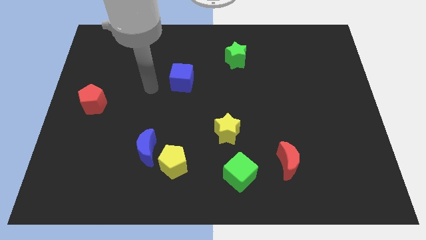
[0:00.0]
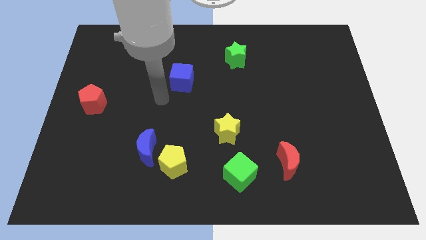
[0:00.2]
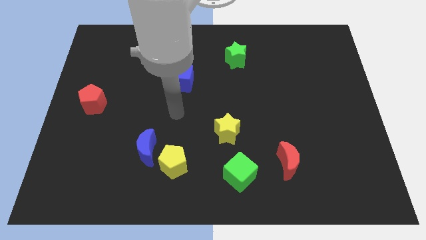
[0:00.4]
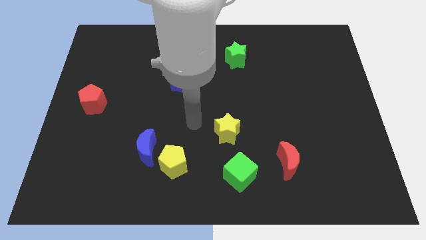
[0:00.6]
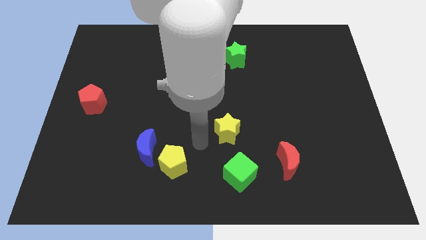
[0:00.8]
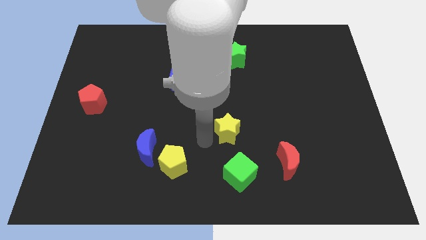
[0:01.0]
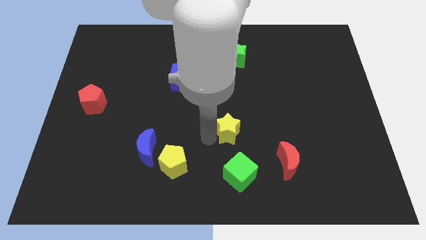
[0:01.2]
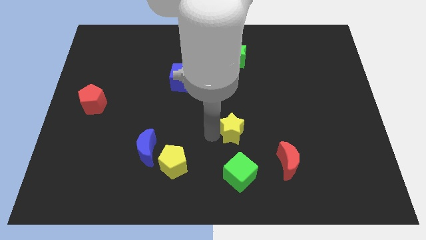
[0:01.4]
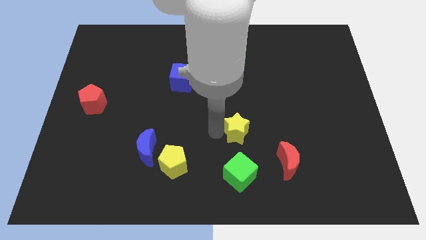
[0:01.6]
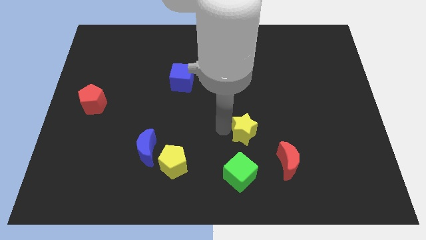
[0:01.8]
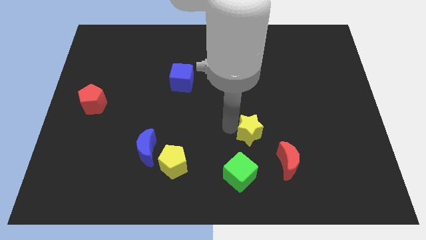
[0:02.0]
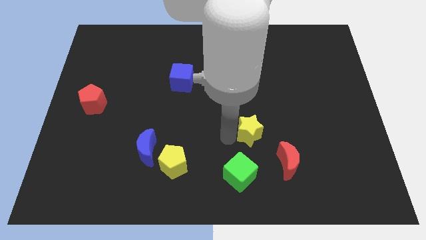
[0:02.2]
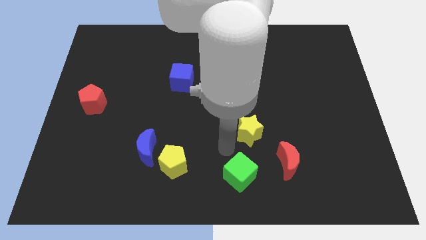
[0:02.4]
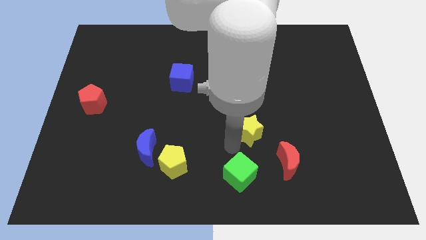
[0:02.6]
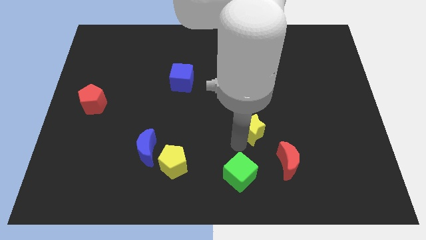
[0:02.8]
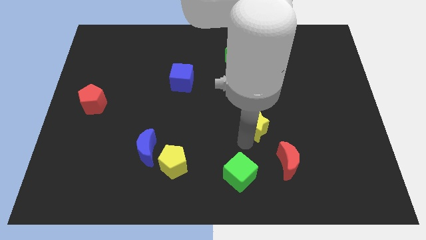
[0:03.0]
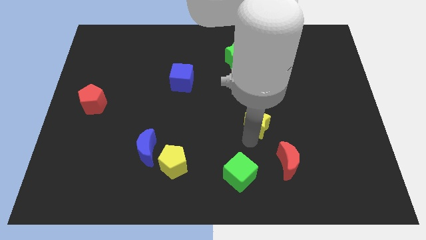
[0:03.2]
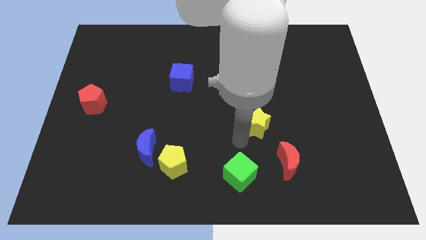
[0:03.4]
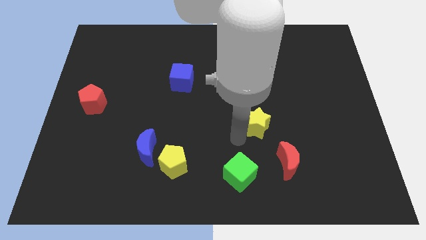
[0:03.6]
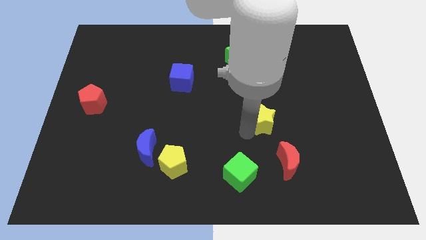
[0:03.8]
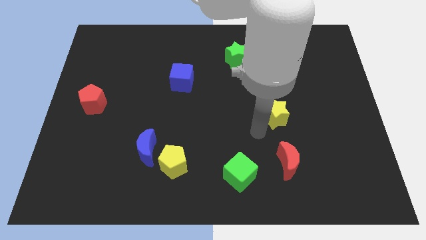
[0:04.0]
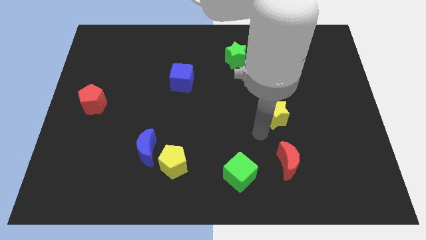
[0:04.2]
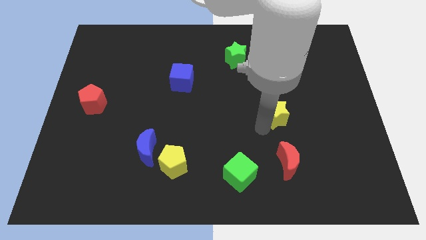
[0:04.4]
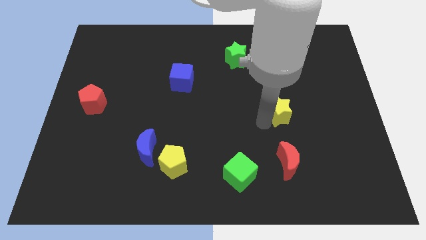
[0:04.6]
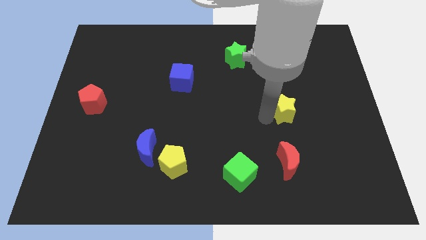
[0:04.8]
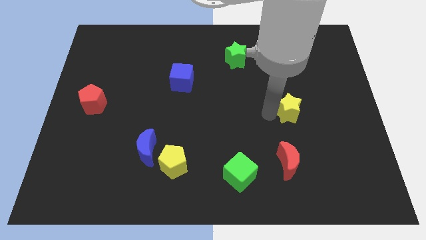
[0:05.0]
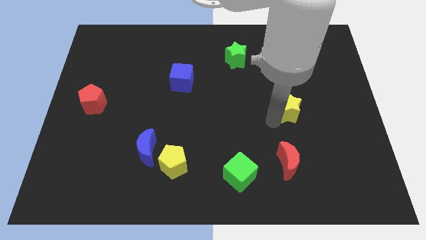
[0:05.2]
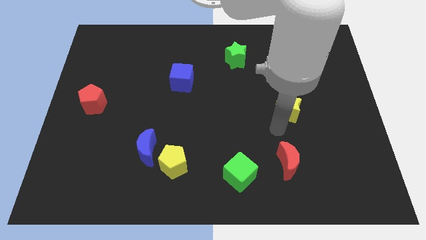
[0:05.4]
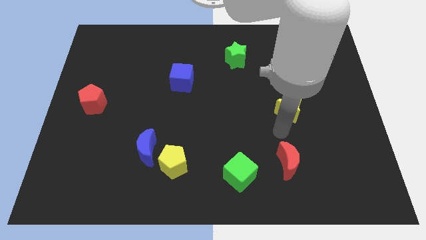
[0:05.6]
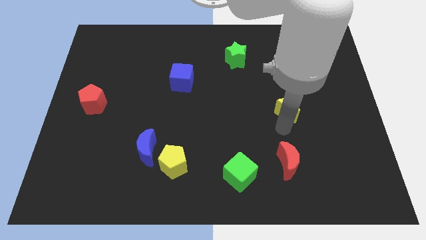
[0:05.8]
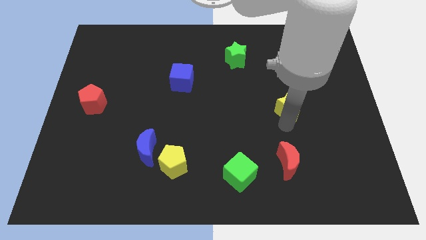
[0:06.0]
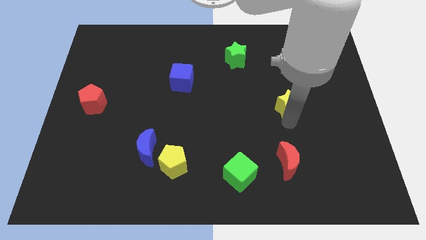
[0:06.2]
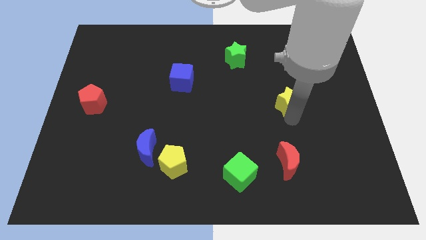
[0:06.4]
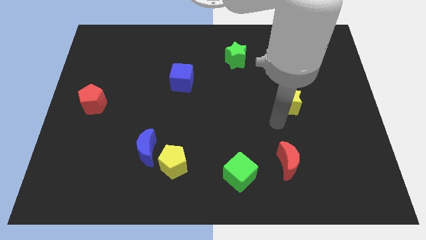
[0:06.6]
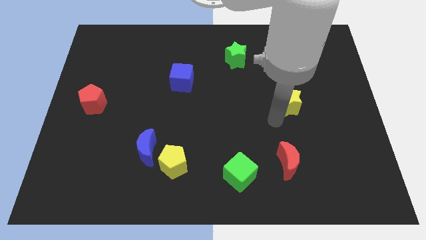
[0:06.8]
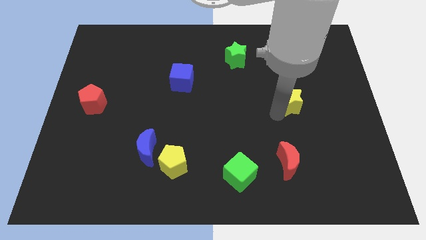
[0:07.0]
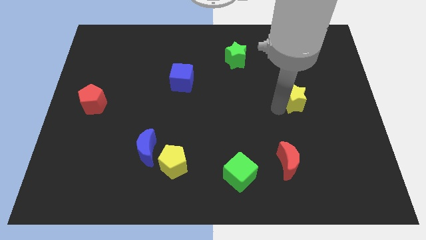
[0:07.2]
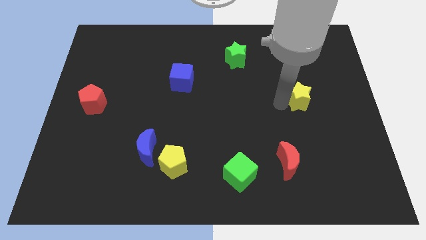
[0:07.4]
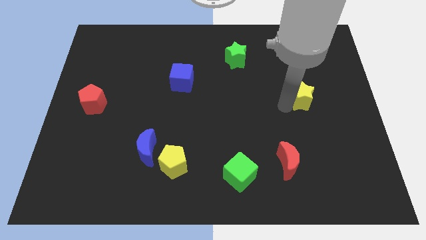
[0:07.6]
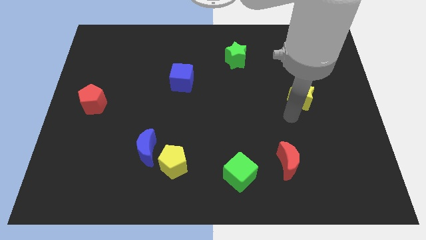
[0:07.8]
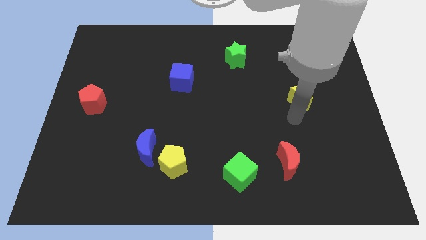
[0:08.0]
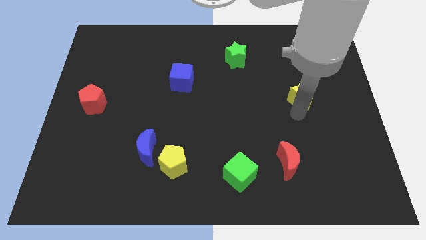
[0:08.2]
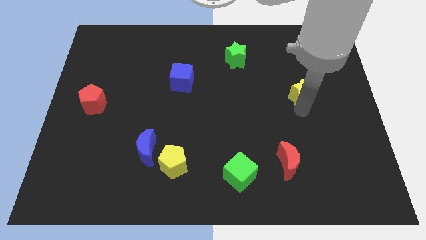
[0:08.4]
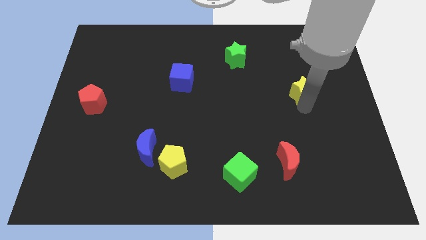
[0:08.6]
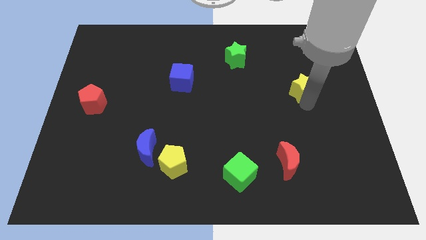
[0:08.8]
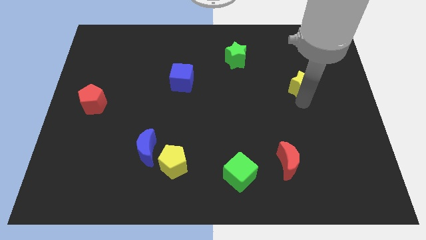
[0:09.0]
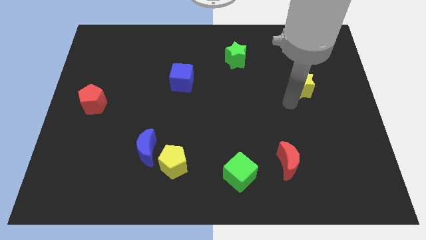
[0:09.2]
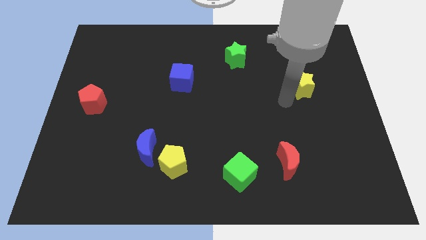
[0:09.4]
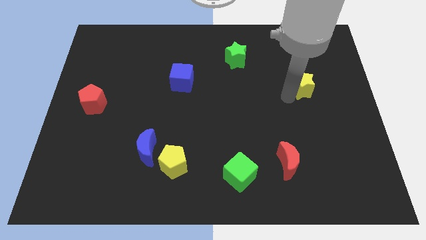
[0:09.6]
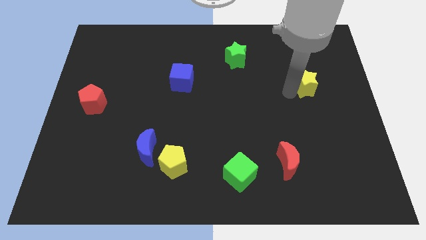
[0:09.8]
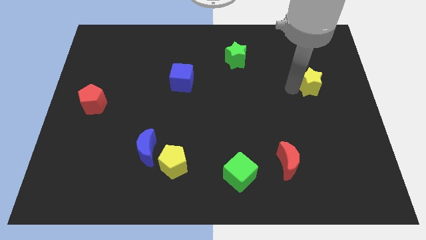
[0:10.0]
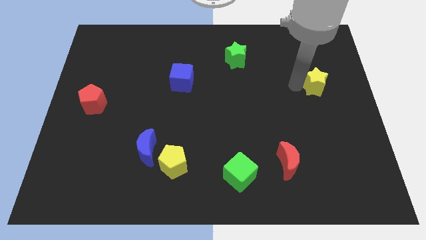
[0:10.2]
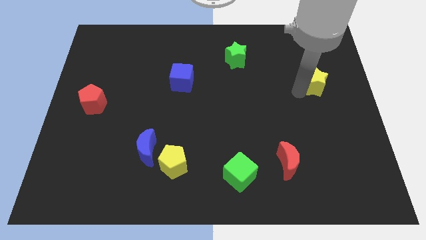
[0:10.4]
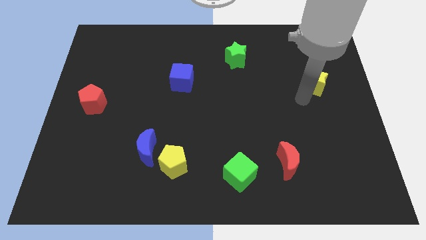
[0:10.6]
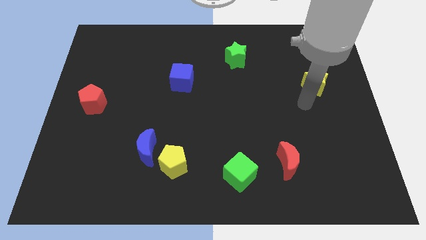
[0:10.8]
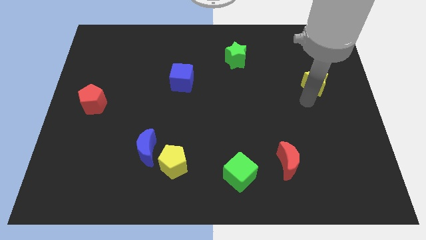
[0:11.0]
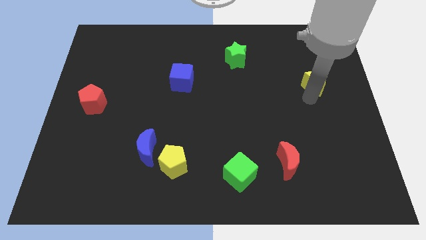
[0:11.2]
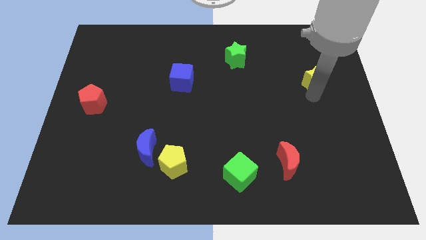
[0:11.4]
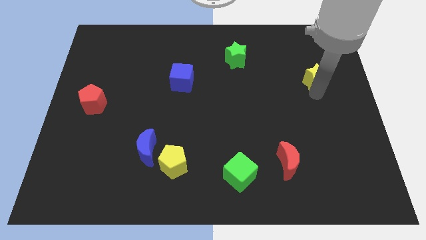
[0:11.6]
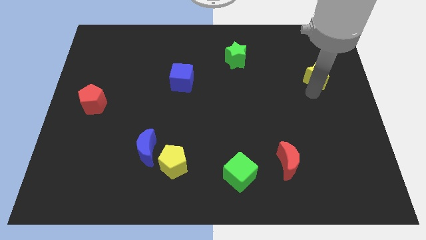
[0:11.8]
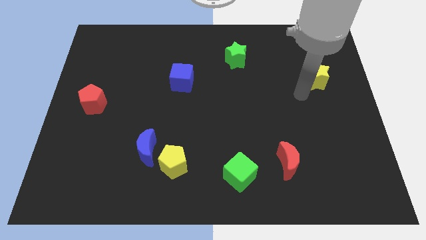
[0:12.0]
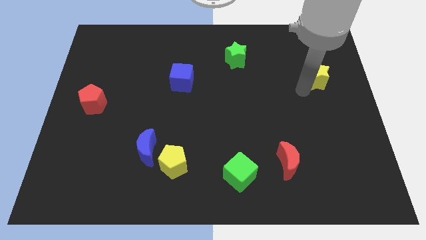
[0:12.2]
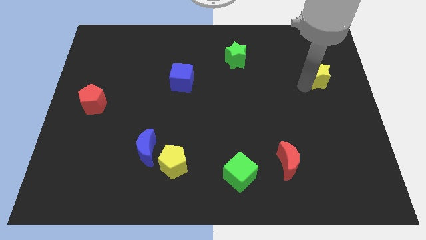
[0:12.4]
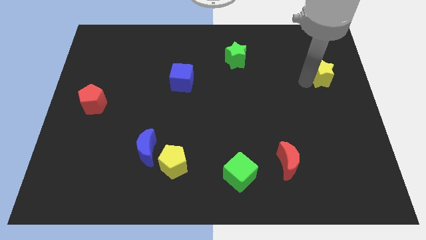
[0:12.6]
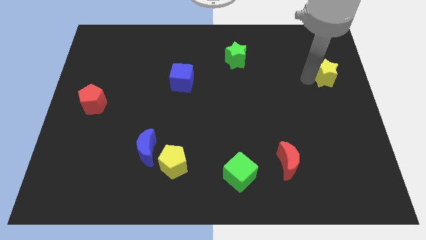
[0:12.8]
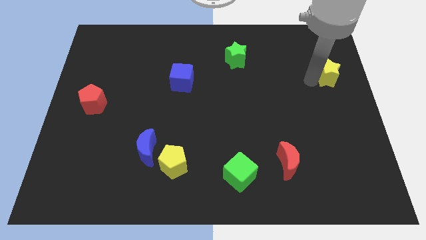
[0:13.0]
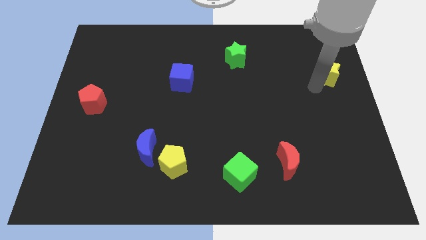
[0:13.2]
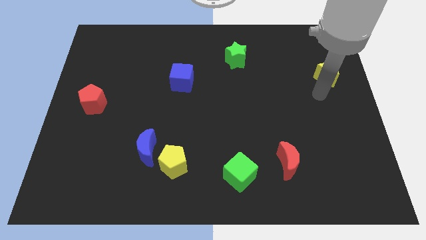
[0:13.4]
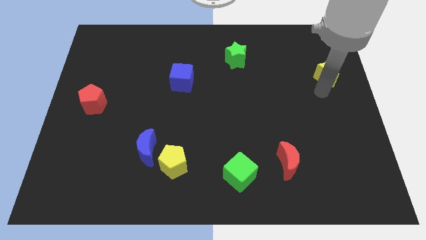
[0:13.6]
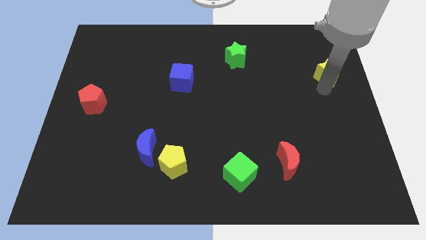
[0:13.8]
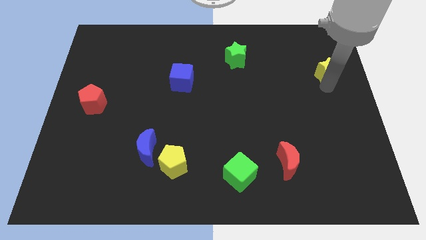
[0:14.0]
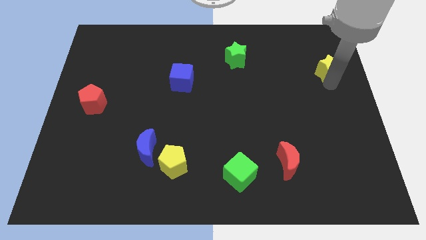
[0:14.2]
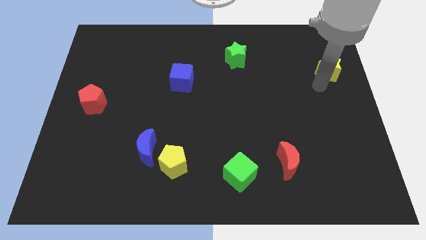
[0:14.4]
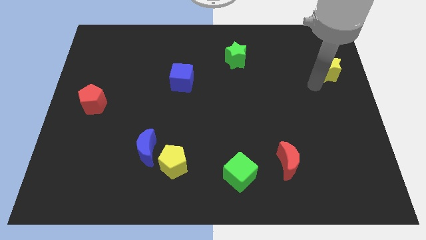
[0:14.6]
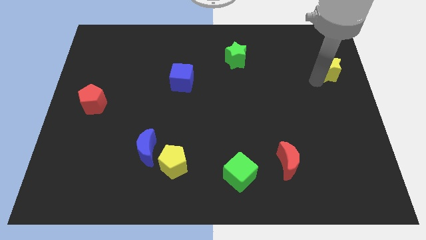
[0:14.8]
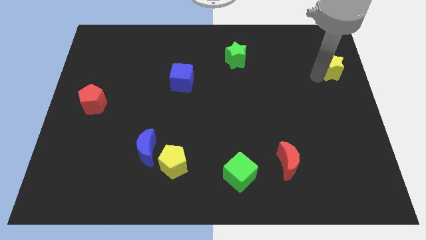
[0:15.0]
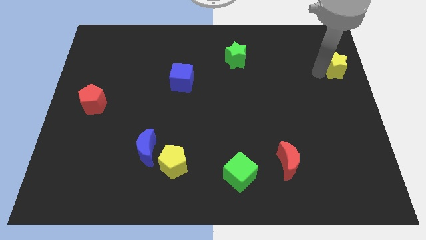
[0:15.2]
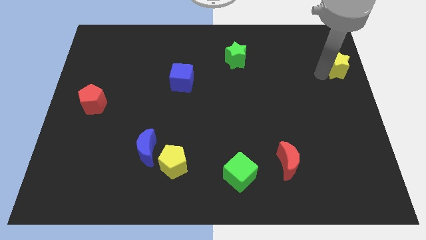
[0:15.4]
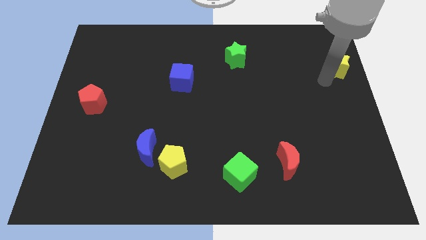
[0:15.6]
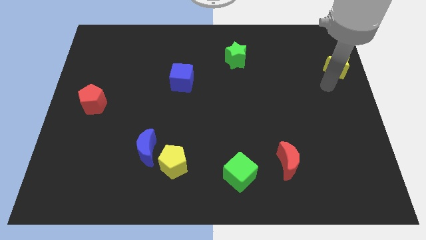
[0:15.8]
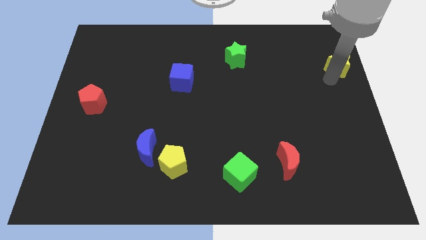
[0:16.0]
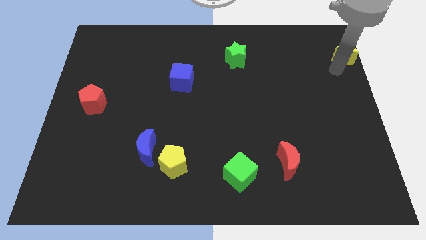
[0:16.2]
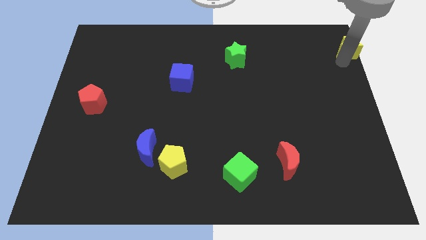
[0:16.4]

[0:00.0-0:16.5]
move the yellow star to the upper right corner
